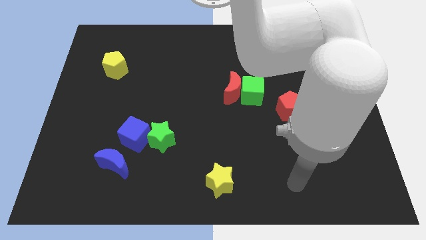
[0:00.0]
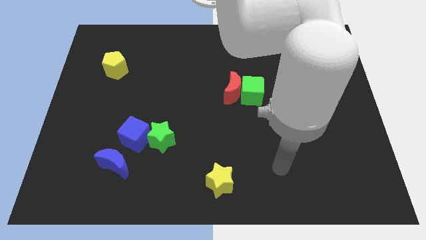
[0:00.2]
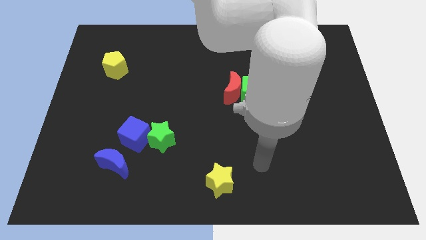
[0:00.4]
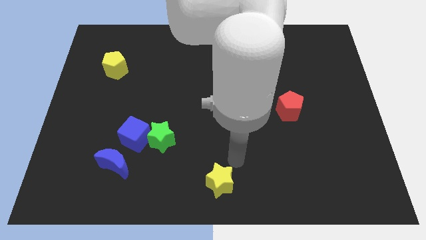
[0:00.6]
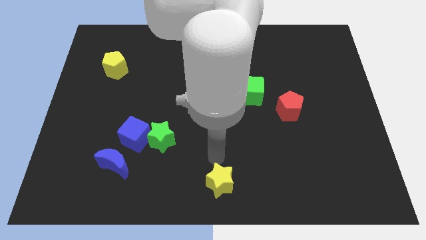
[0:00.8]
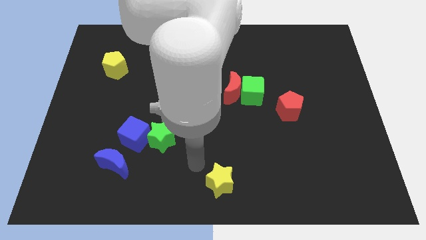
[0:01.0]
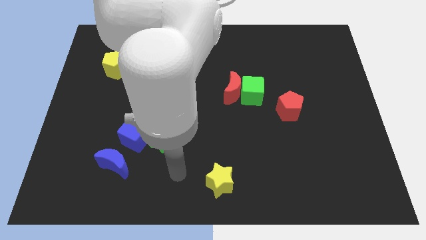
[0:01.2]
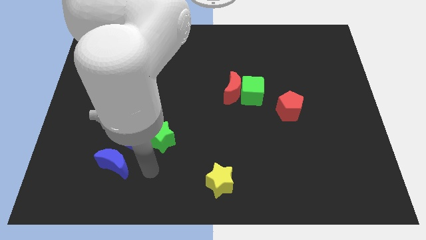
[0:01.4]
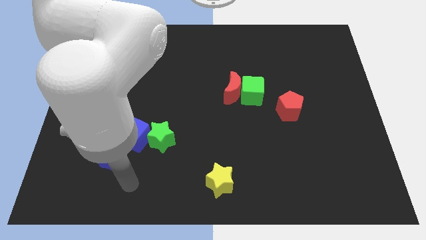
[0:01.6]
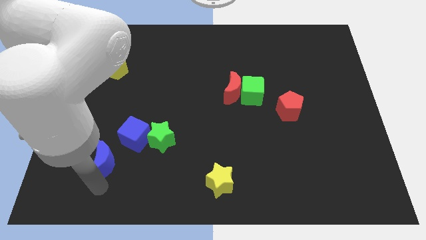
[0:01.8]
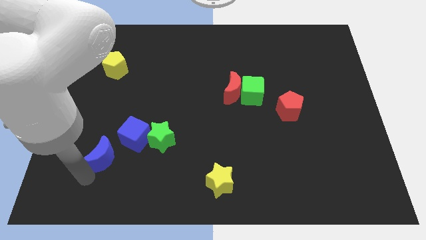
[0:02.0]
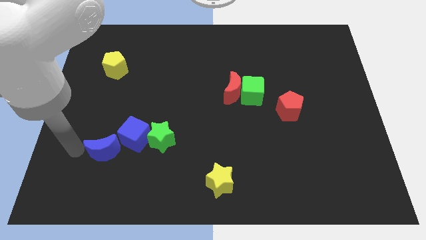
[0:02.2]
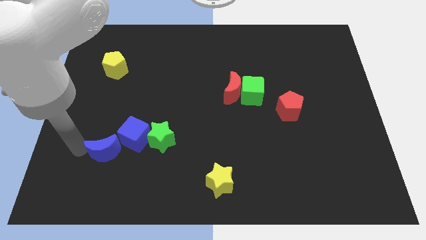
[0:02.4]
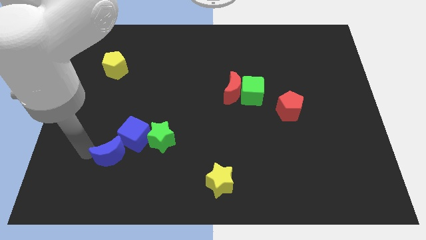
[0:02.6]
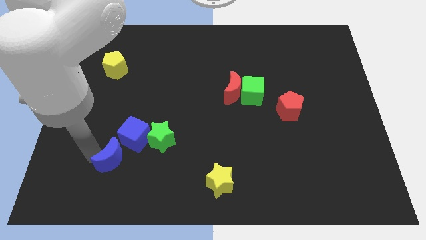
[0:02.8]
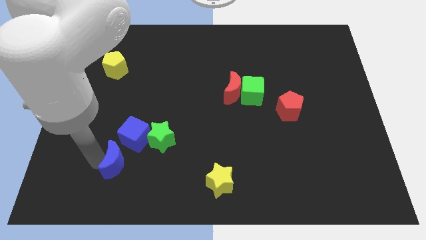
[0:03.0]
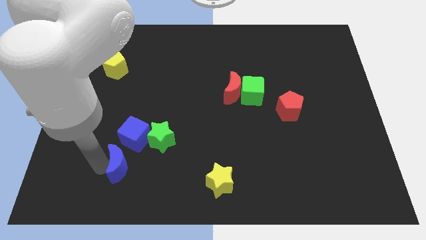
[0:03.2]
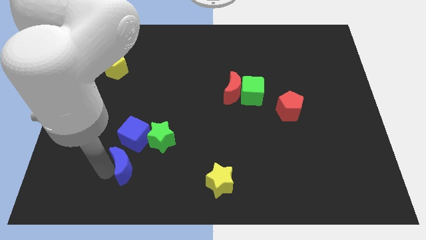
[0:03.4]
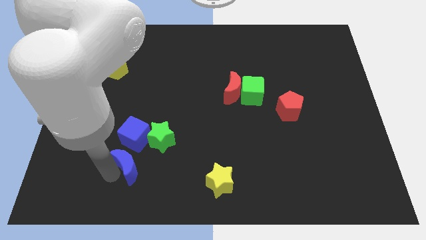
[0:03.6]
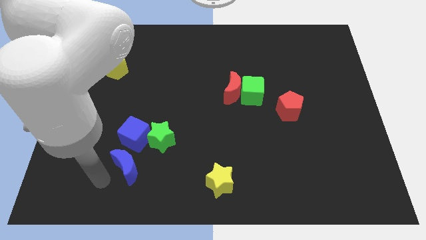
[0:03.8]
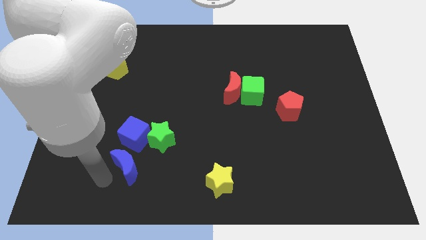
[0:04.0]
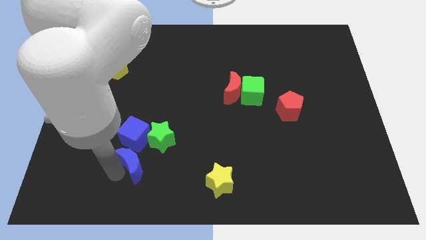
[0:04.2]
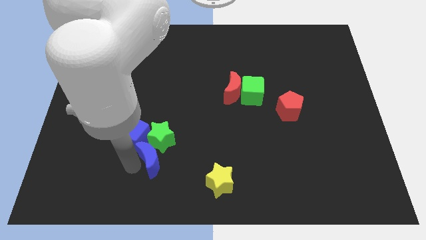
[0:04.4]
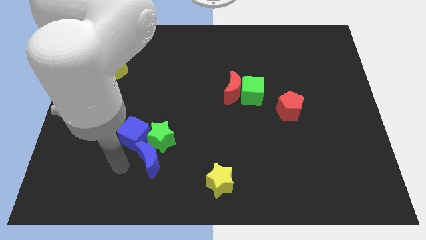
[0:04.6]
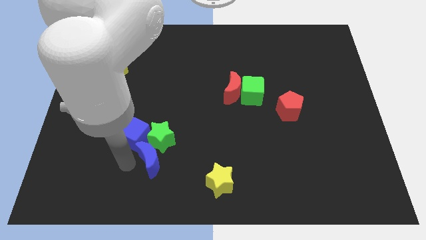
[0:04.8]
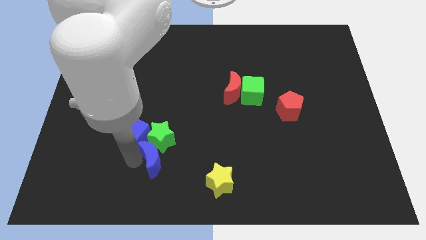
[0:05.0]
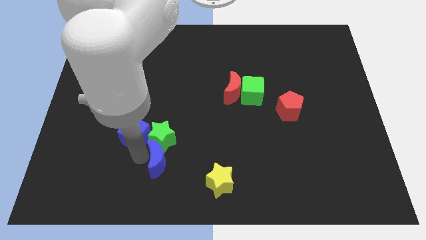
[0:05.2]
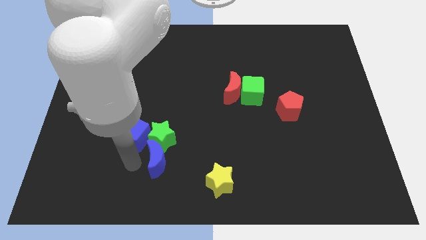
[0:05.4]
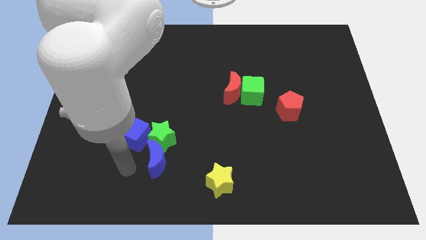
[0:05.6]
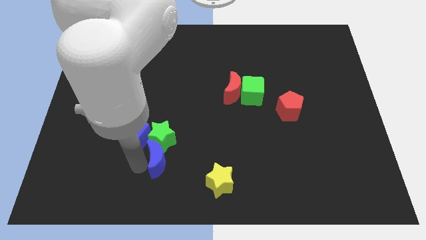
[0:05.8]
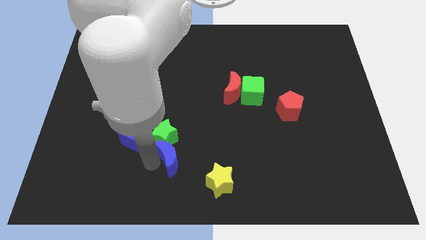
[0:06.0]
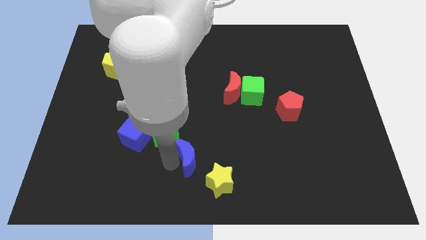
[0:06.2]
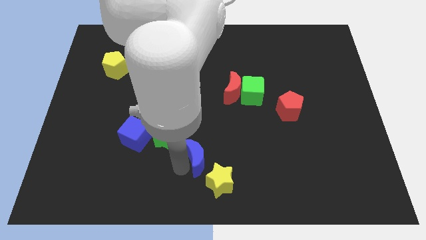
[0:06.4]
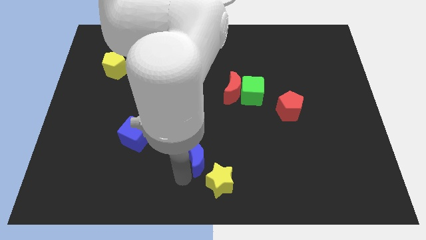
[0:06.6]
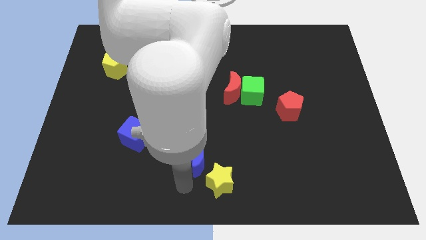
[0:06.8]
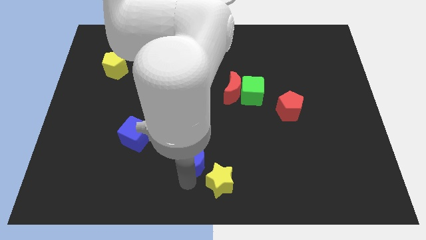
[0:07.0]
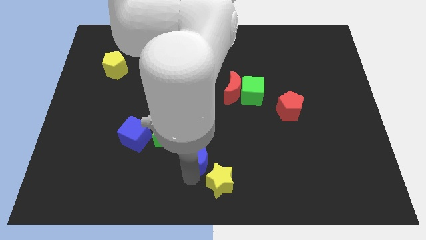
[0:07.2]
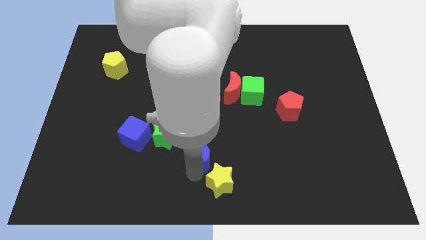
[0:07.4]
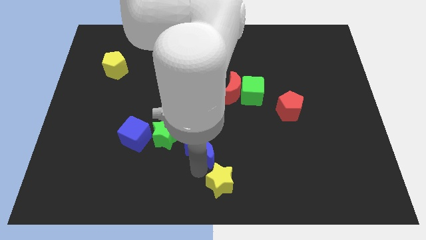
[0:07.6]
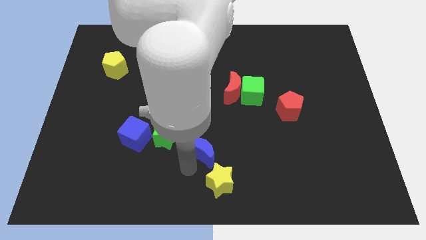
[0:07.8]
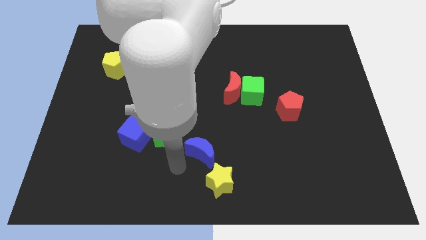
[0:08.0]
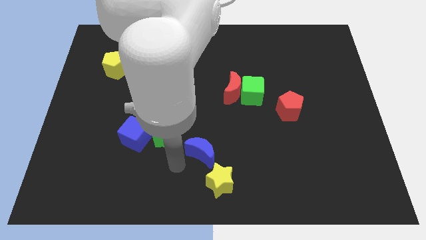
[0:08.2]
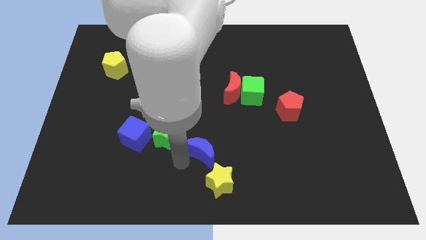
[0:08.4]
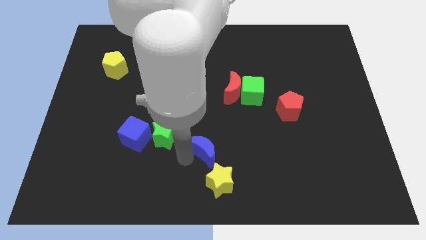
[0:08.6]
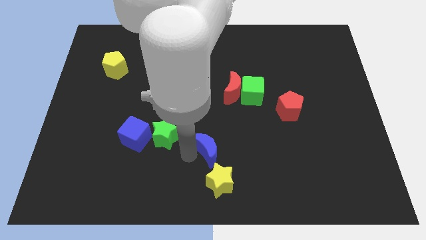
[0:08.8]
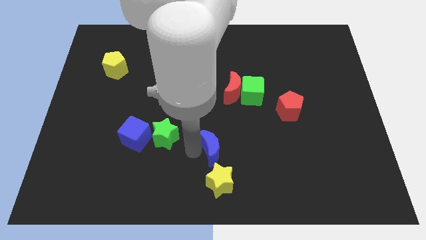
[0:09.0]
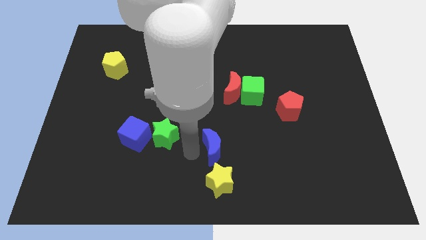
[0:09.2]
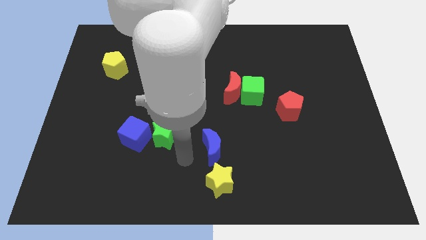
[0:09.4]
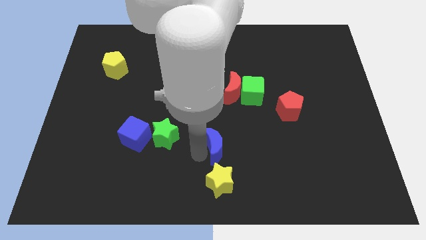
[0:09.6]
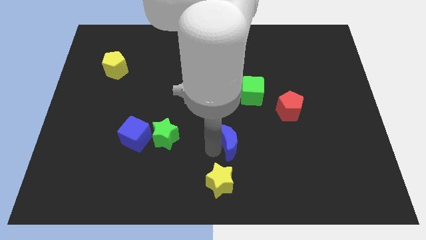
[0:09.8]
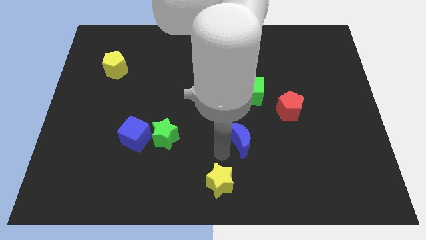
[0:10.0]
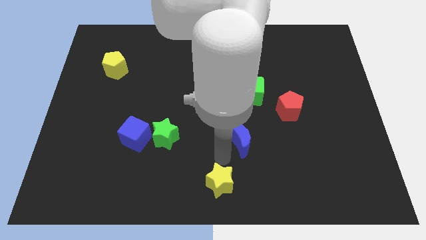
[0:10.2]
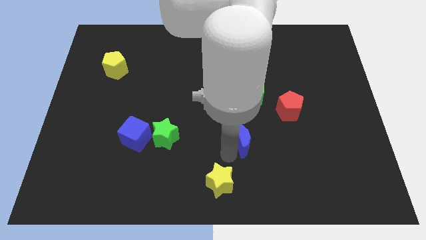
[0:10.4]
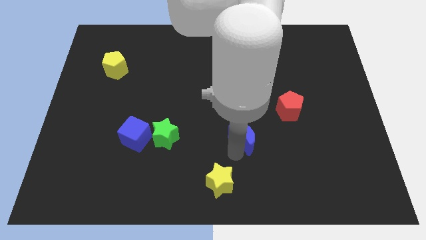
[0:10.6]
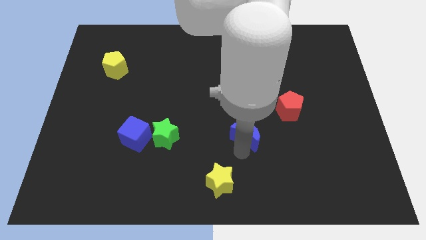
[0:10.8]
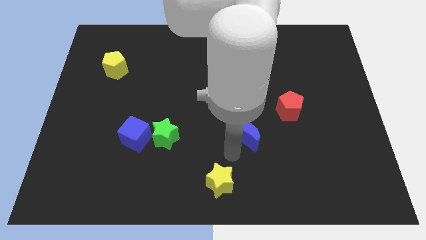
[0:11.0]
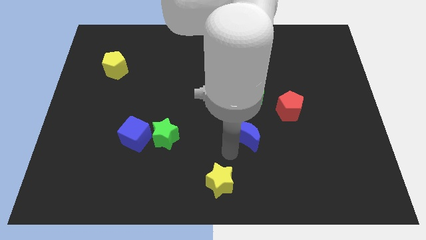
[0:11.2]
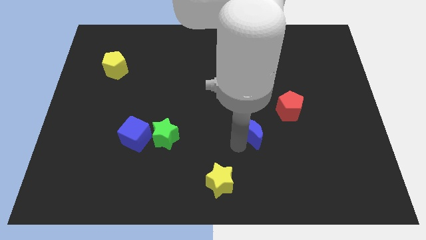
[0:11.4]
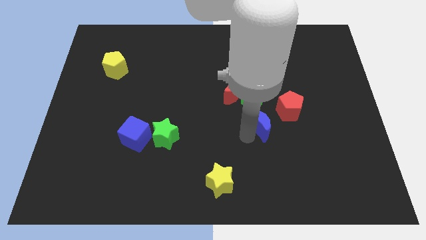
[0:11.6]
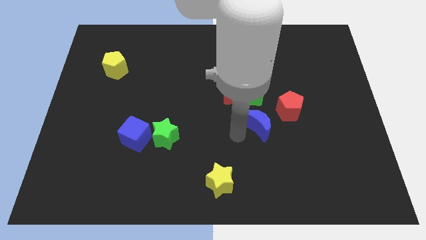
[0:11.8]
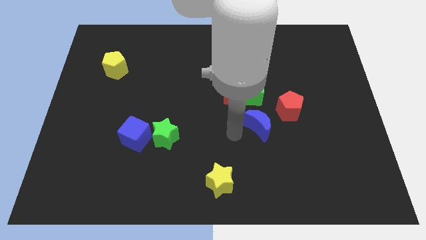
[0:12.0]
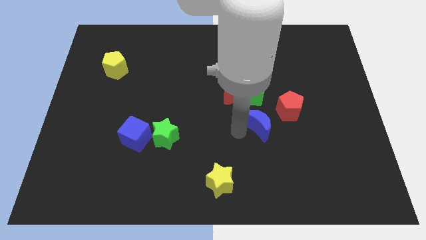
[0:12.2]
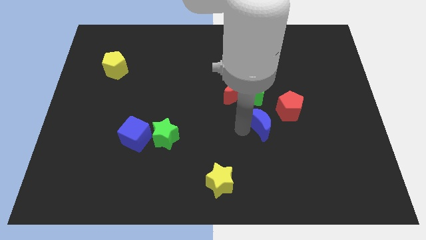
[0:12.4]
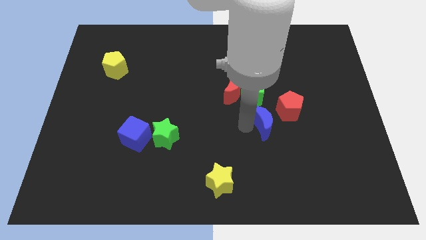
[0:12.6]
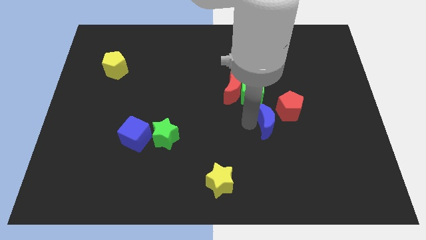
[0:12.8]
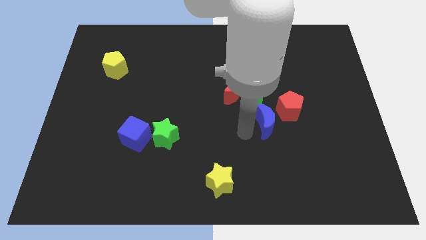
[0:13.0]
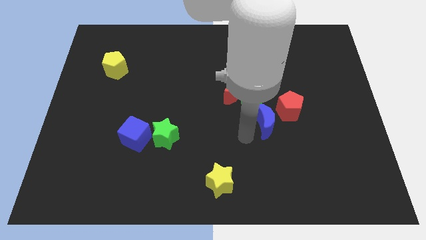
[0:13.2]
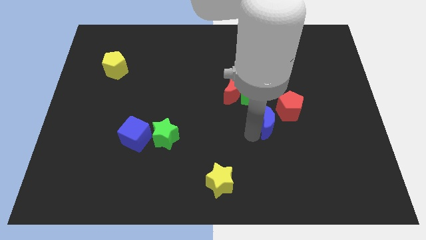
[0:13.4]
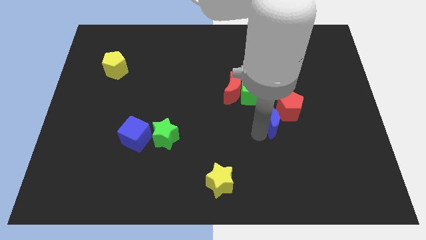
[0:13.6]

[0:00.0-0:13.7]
put the blue moon close to the red pentagon
